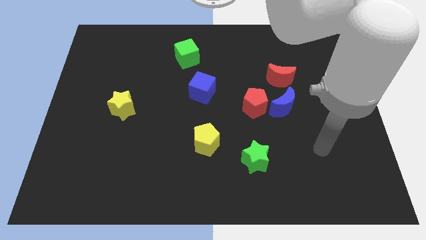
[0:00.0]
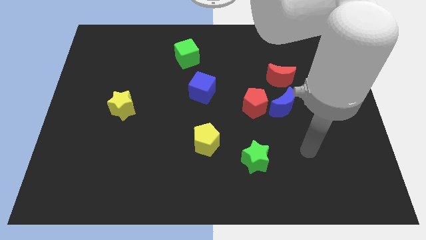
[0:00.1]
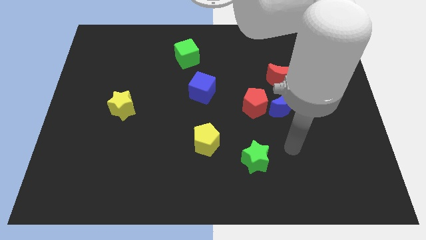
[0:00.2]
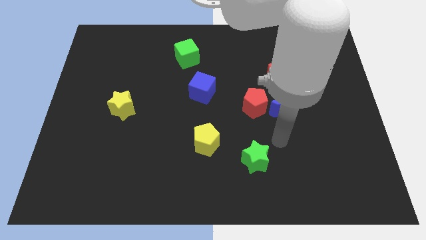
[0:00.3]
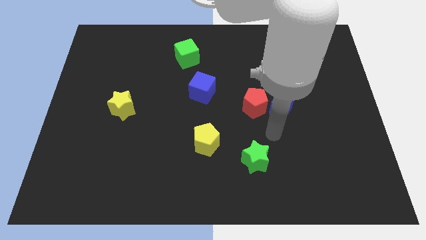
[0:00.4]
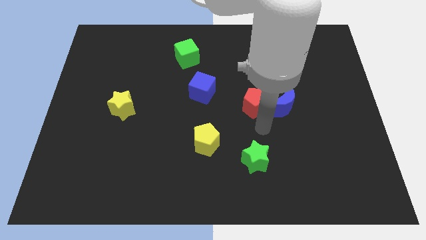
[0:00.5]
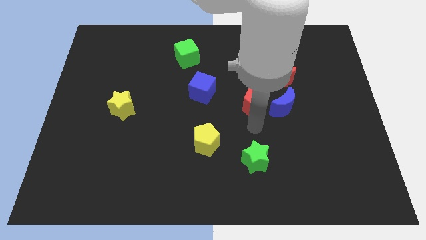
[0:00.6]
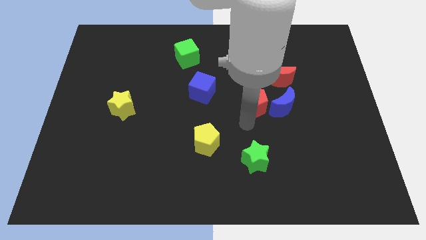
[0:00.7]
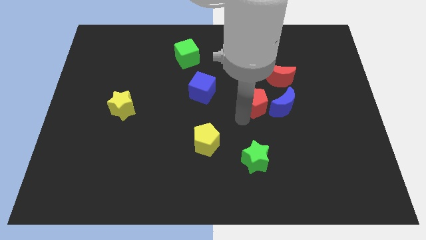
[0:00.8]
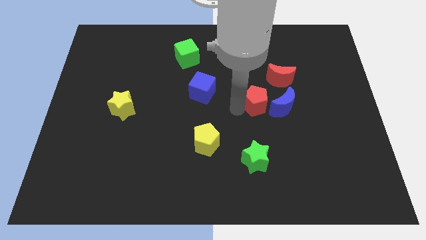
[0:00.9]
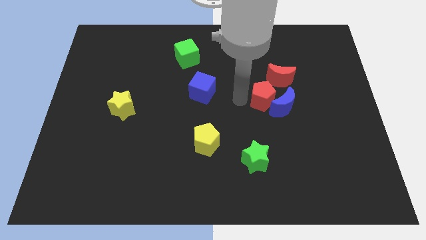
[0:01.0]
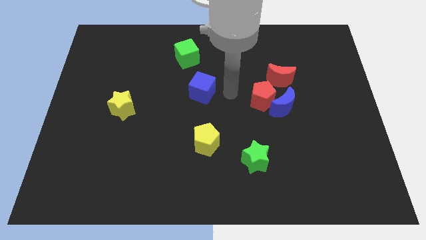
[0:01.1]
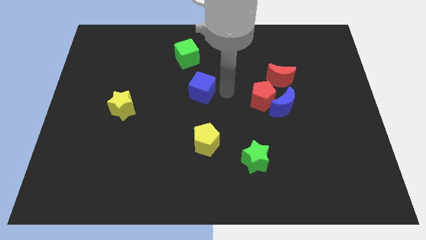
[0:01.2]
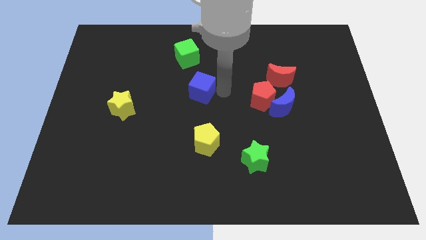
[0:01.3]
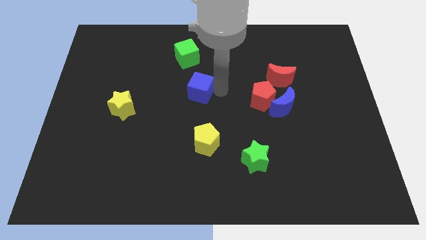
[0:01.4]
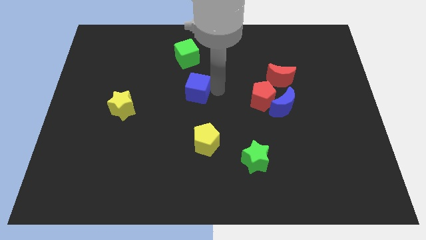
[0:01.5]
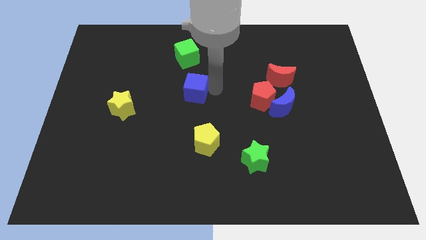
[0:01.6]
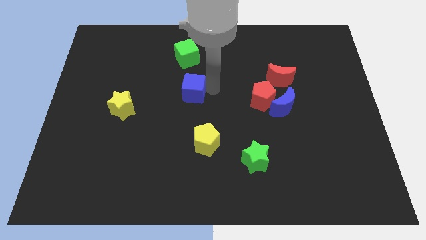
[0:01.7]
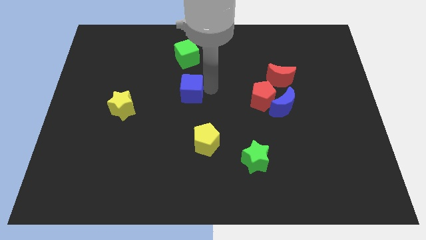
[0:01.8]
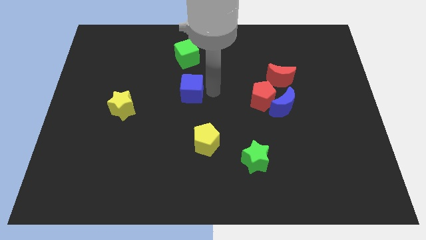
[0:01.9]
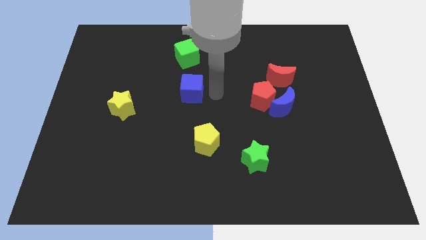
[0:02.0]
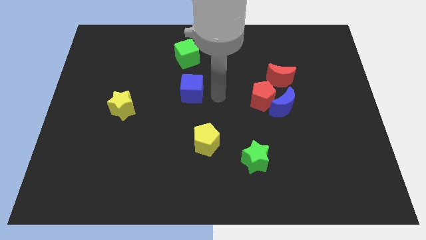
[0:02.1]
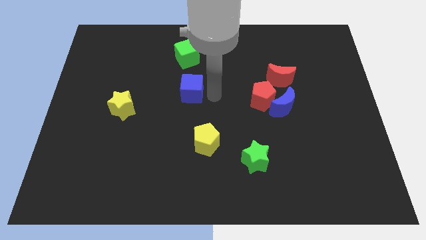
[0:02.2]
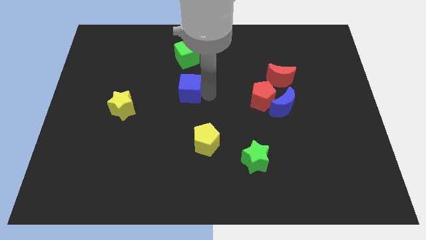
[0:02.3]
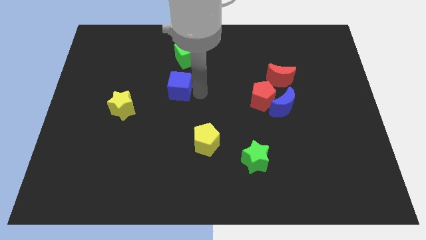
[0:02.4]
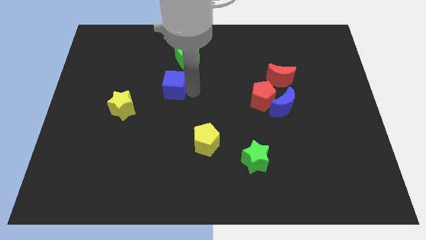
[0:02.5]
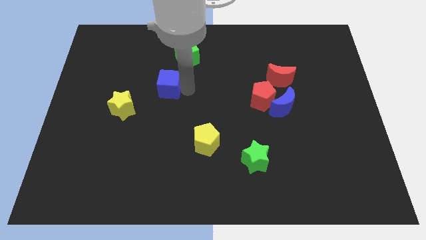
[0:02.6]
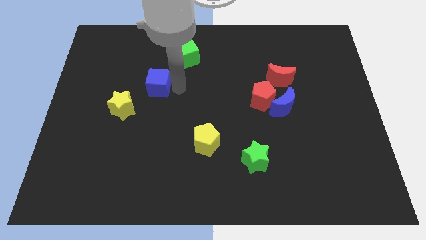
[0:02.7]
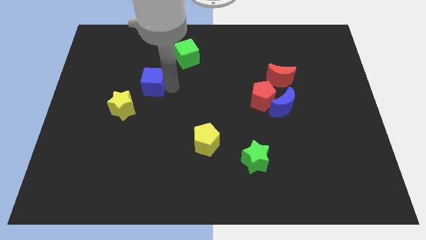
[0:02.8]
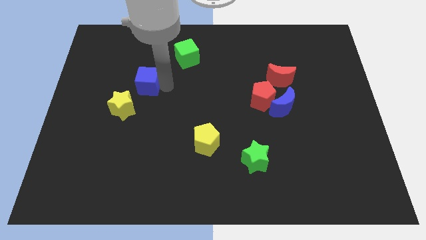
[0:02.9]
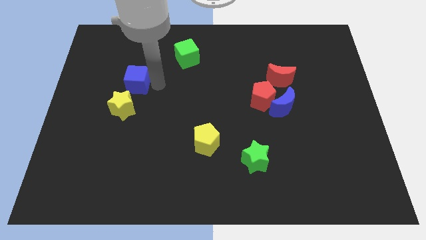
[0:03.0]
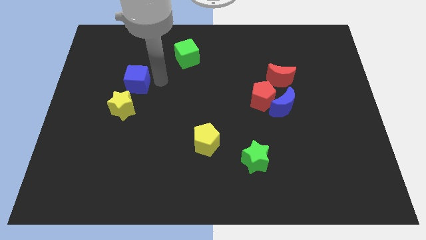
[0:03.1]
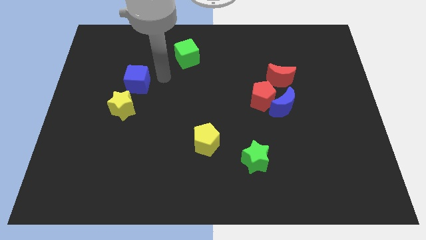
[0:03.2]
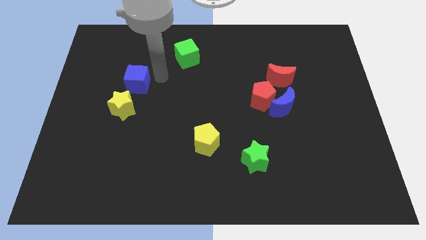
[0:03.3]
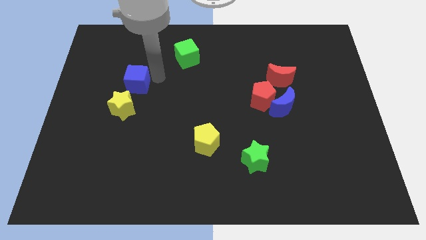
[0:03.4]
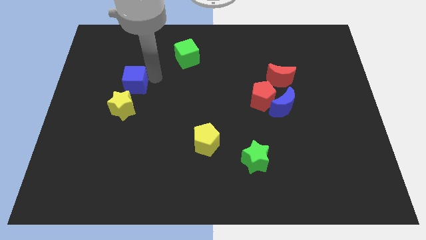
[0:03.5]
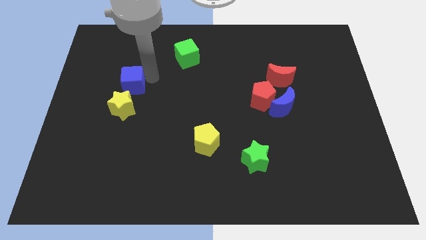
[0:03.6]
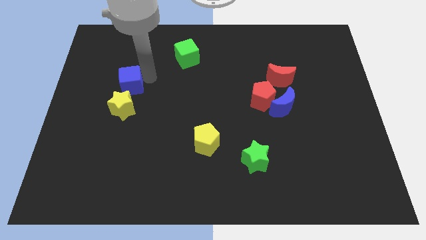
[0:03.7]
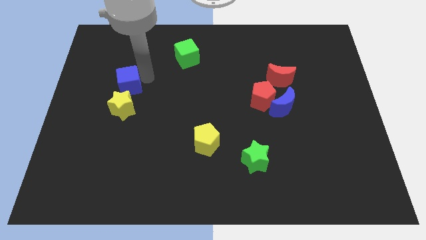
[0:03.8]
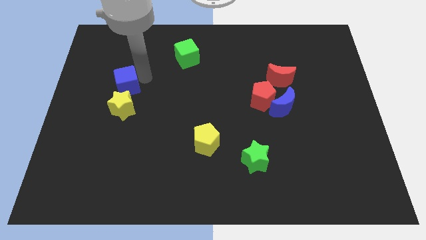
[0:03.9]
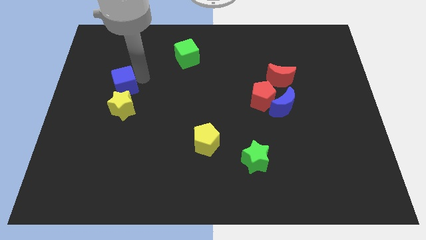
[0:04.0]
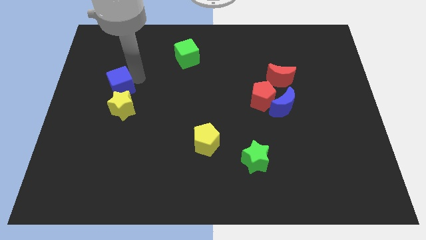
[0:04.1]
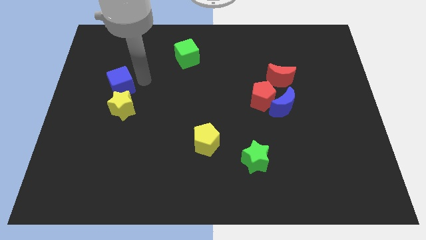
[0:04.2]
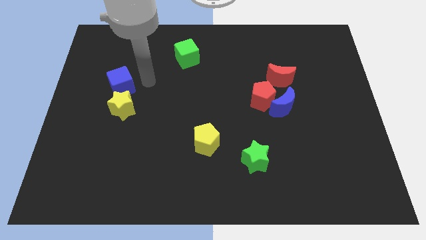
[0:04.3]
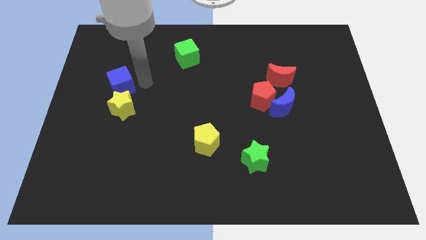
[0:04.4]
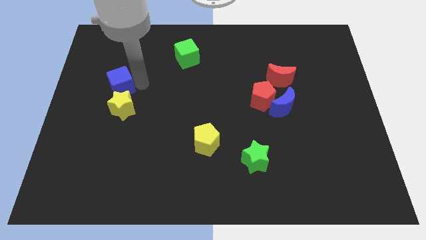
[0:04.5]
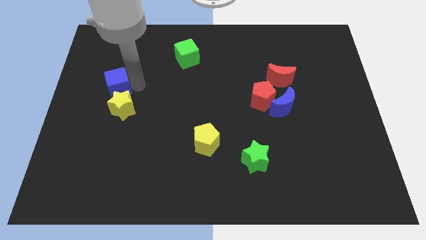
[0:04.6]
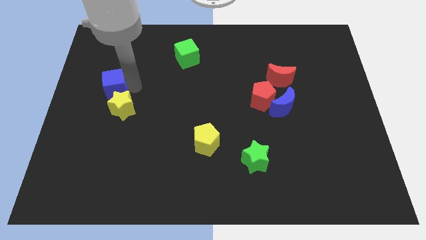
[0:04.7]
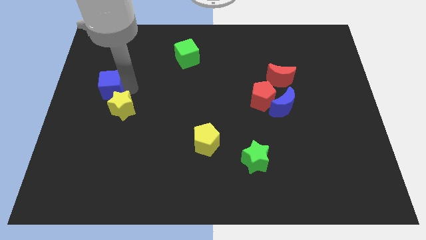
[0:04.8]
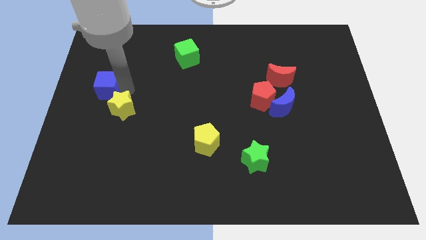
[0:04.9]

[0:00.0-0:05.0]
put the blue cube to the left side

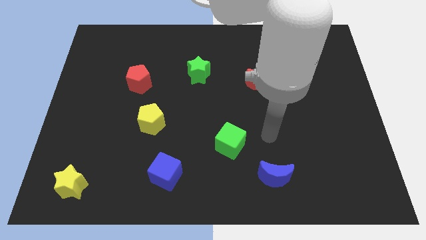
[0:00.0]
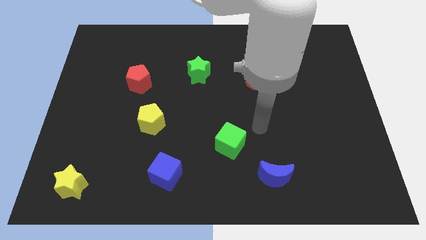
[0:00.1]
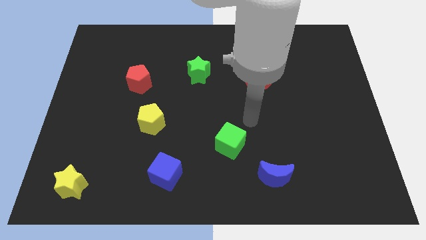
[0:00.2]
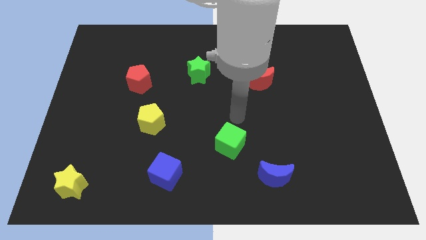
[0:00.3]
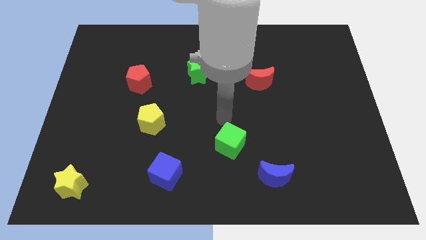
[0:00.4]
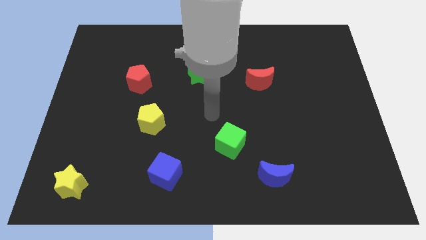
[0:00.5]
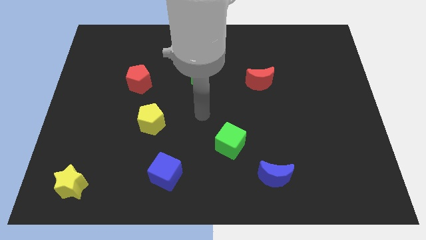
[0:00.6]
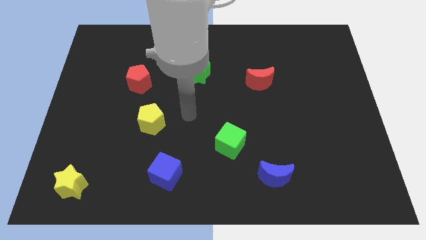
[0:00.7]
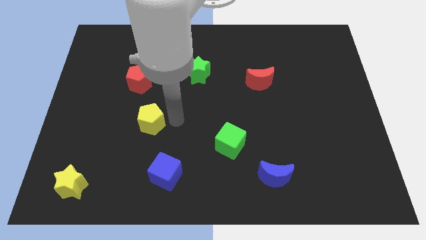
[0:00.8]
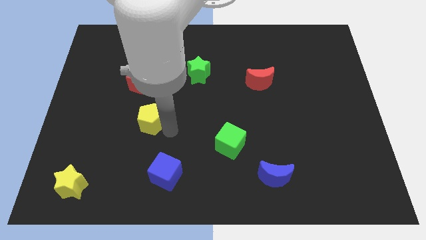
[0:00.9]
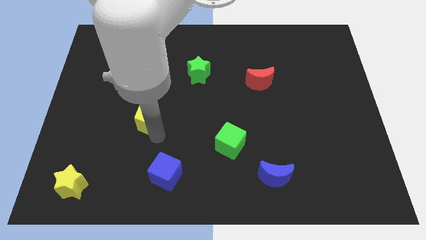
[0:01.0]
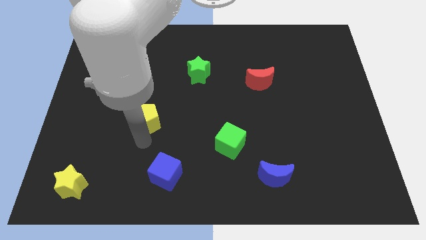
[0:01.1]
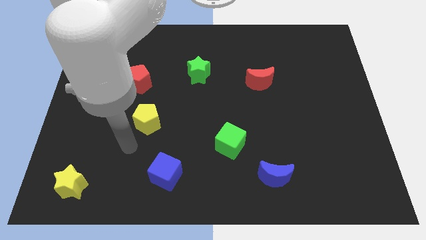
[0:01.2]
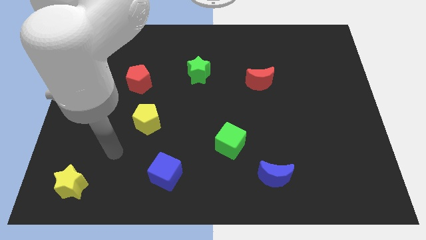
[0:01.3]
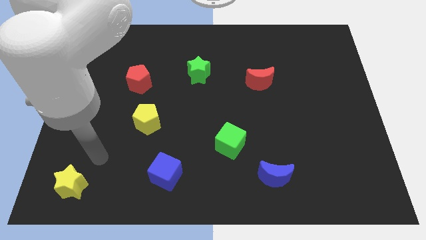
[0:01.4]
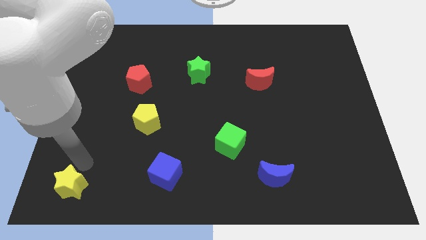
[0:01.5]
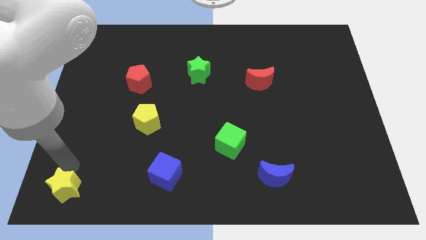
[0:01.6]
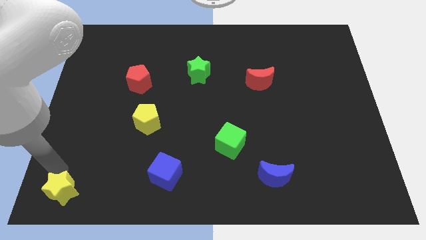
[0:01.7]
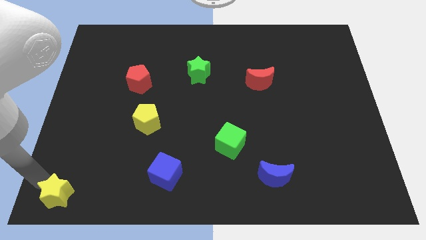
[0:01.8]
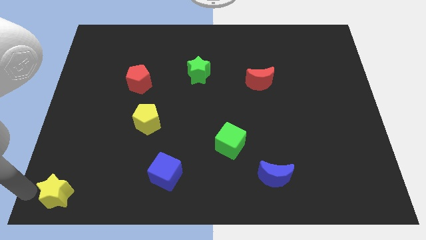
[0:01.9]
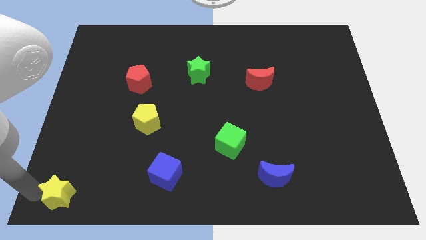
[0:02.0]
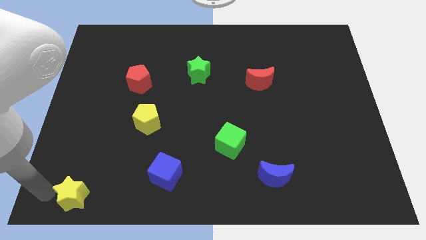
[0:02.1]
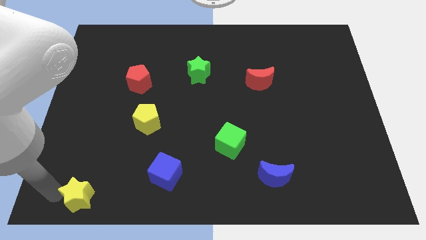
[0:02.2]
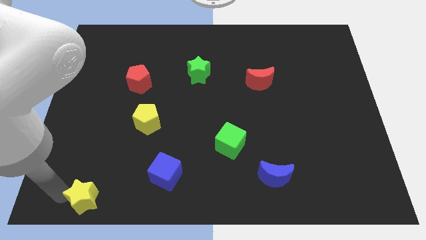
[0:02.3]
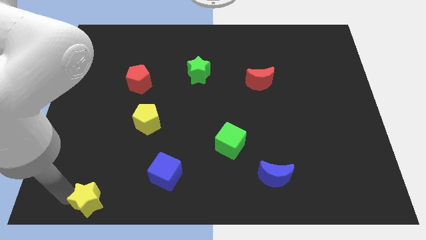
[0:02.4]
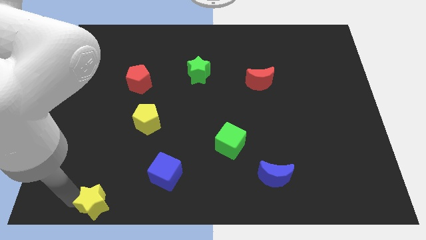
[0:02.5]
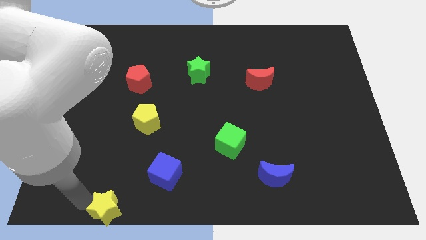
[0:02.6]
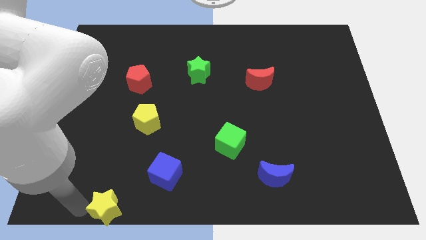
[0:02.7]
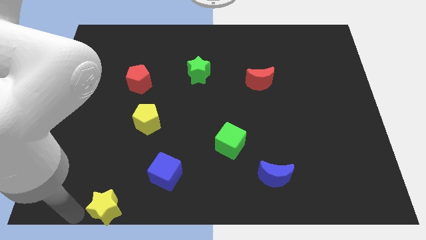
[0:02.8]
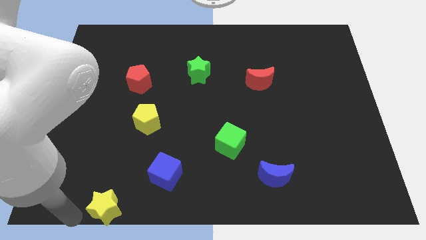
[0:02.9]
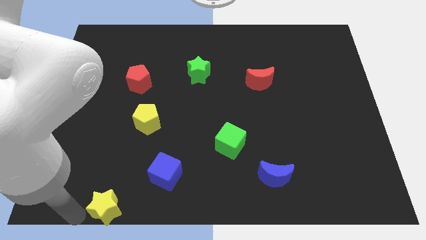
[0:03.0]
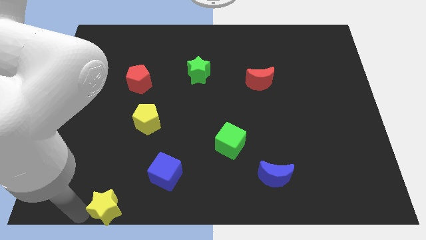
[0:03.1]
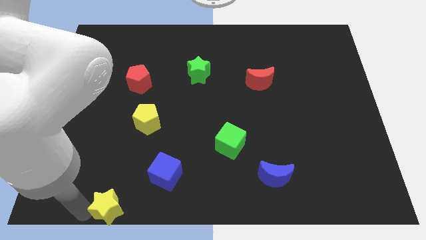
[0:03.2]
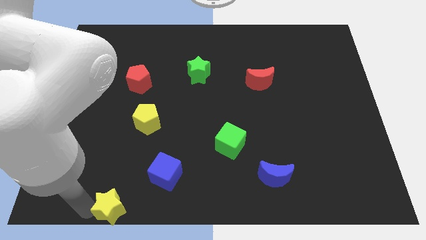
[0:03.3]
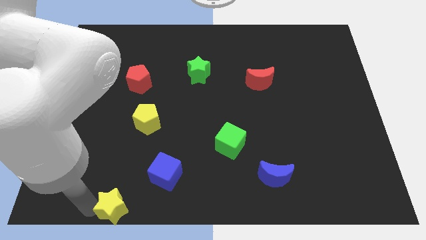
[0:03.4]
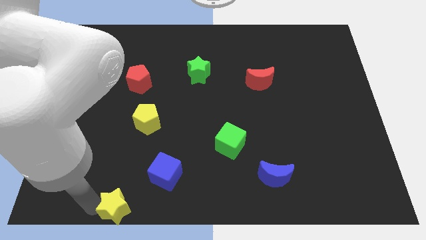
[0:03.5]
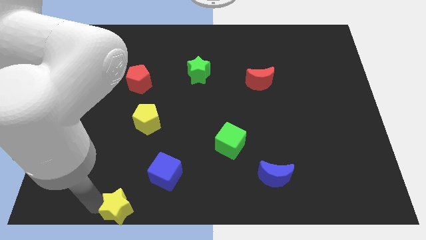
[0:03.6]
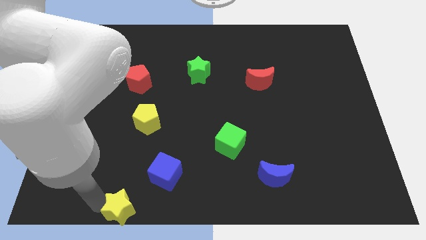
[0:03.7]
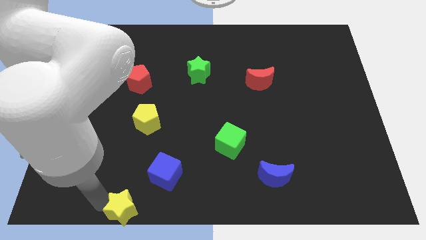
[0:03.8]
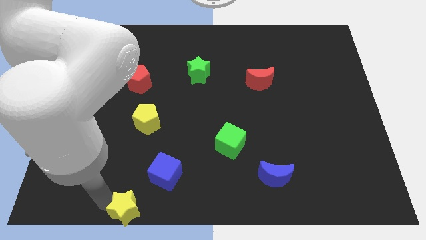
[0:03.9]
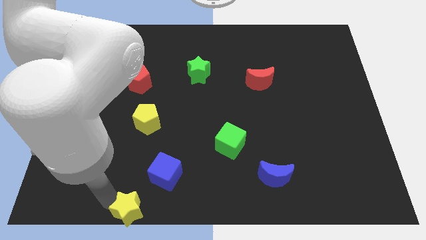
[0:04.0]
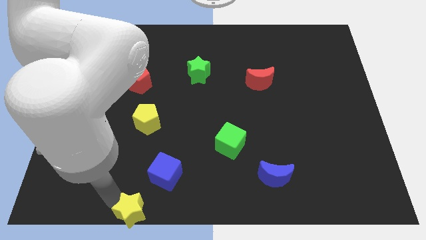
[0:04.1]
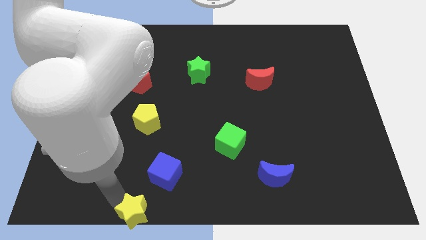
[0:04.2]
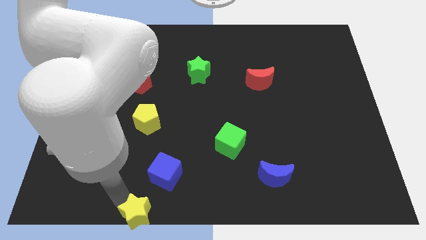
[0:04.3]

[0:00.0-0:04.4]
slide the yellow star to the bottom side
